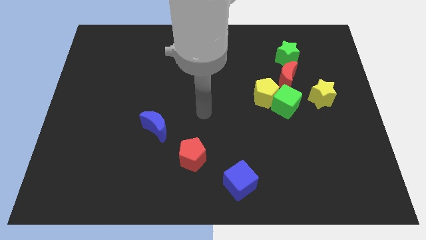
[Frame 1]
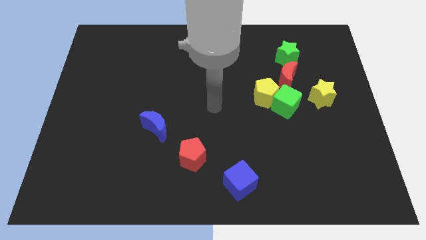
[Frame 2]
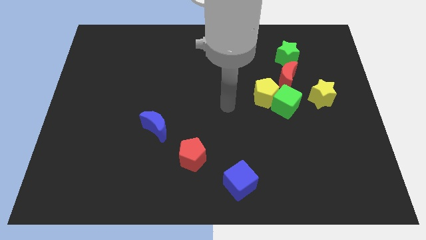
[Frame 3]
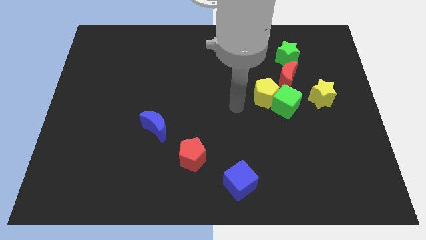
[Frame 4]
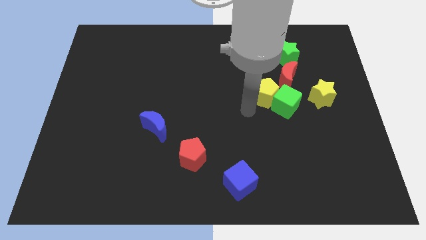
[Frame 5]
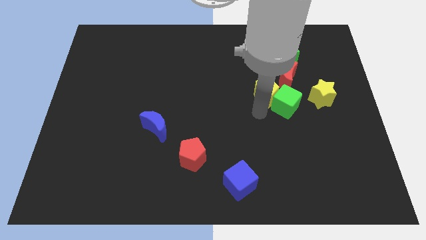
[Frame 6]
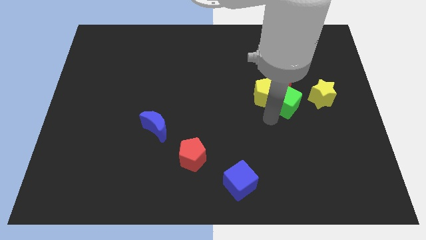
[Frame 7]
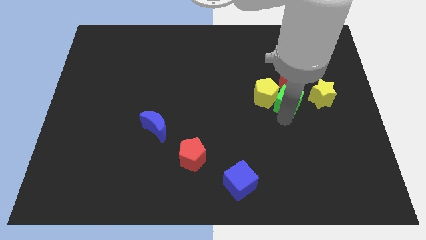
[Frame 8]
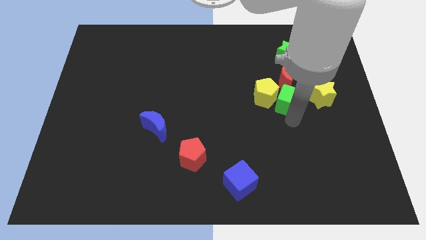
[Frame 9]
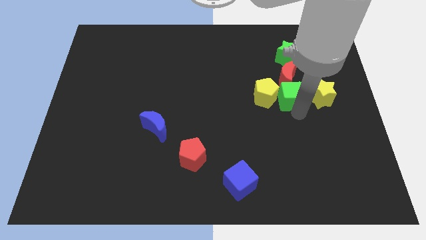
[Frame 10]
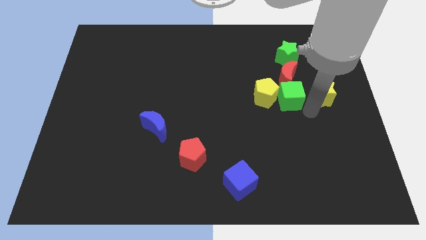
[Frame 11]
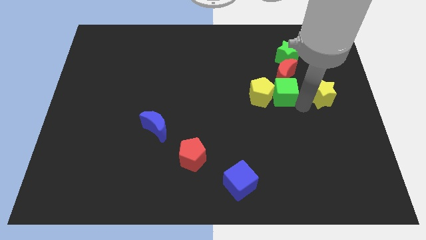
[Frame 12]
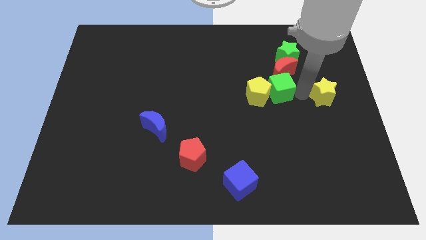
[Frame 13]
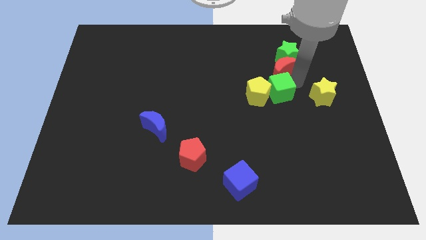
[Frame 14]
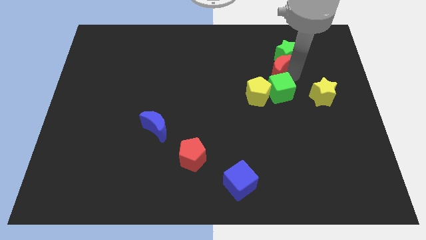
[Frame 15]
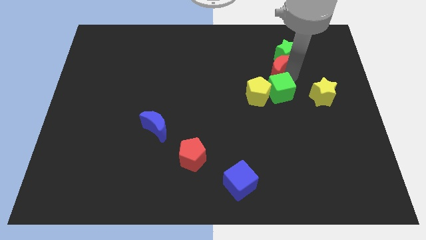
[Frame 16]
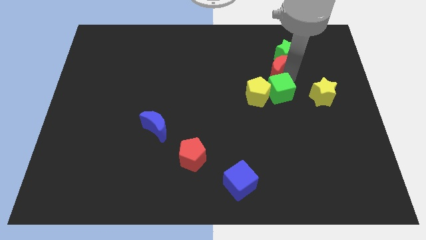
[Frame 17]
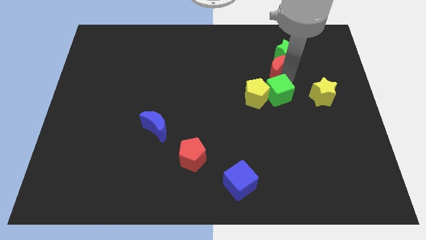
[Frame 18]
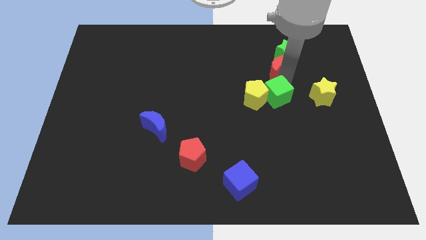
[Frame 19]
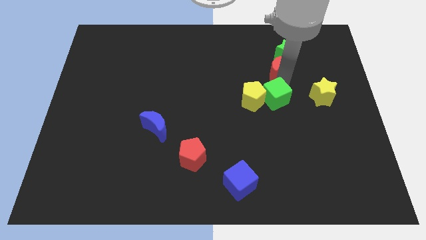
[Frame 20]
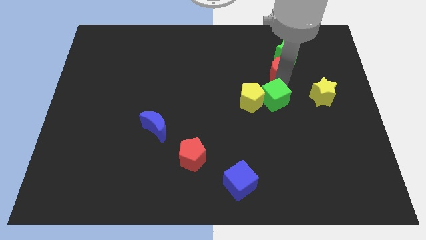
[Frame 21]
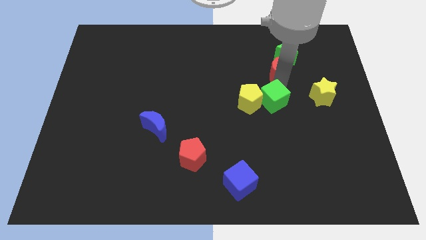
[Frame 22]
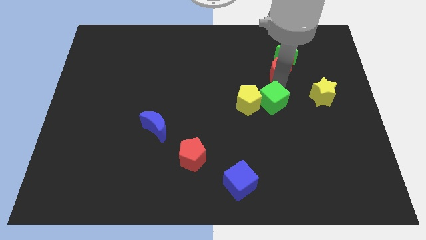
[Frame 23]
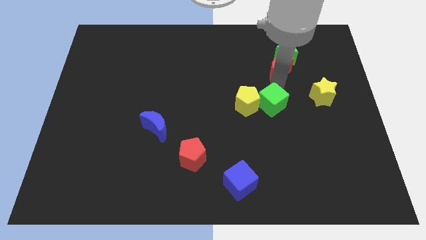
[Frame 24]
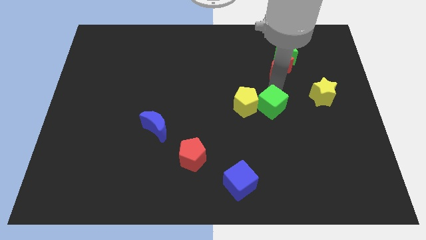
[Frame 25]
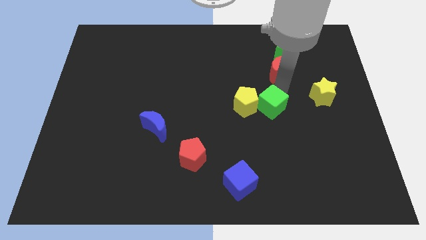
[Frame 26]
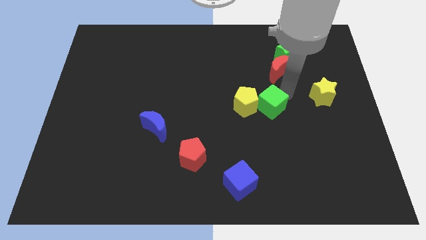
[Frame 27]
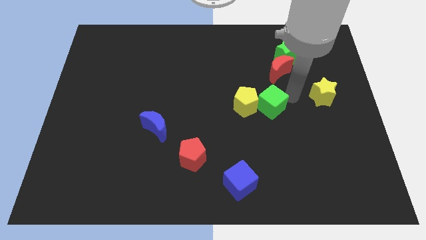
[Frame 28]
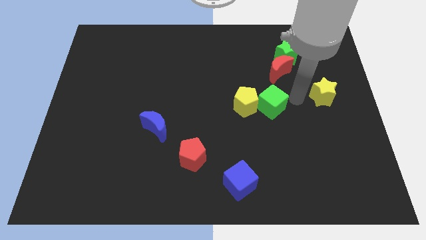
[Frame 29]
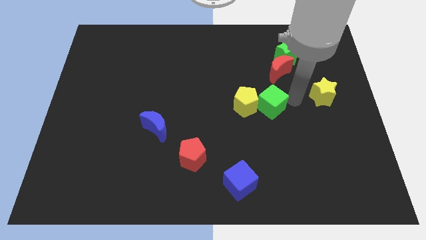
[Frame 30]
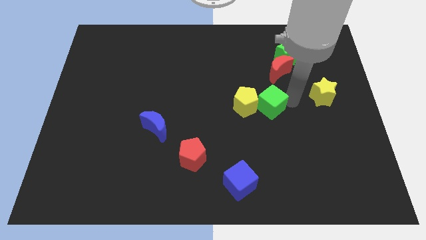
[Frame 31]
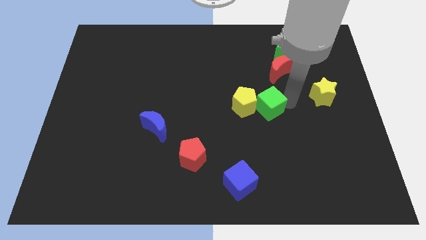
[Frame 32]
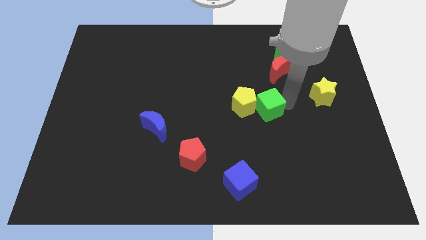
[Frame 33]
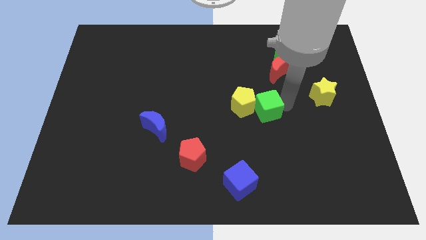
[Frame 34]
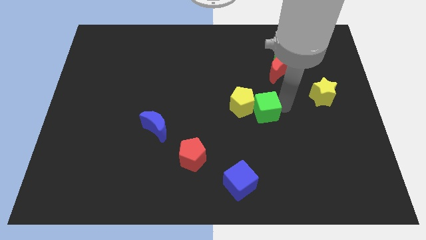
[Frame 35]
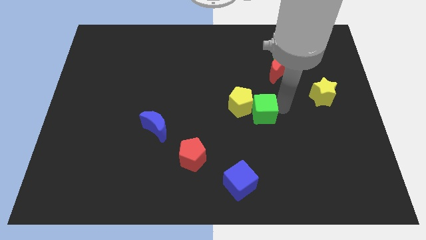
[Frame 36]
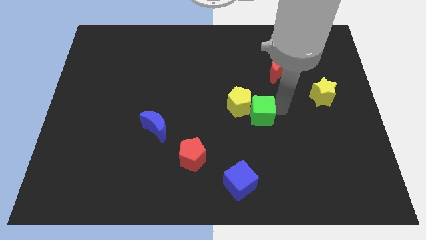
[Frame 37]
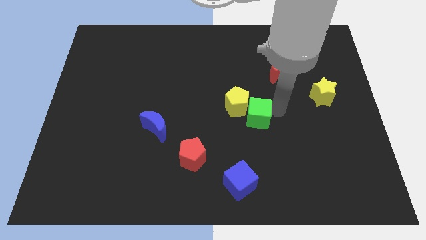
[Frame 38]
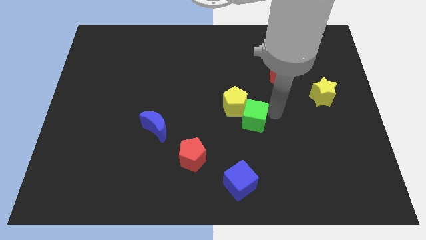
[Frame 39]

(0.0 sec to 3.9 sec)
slide the green cube left a little bit

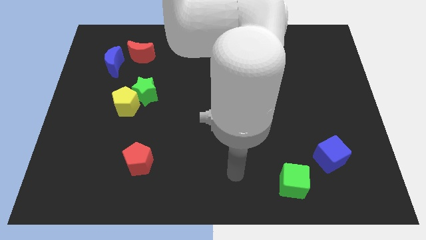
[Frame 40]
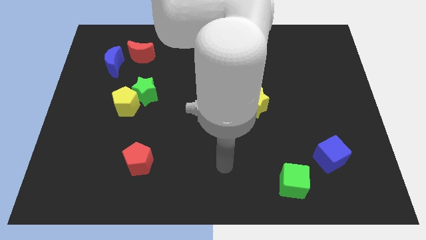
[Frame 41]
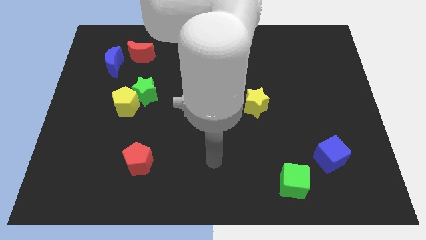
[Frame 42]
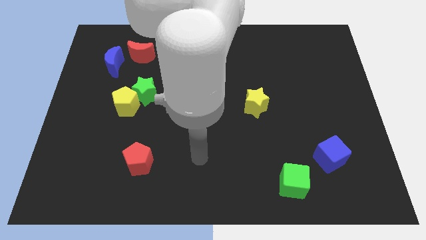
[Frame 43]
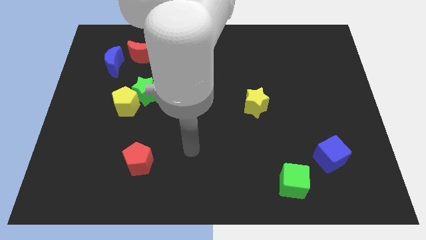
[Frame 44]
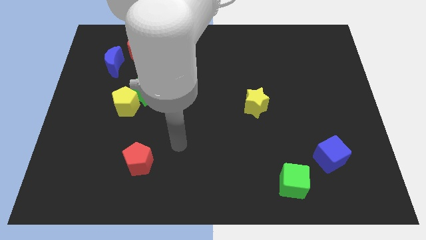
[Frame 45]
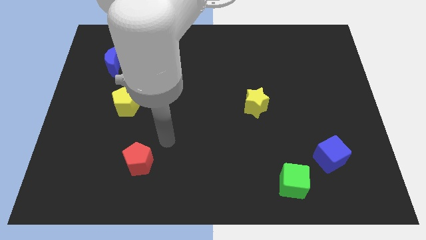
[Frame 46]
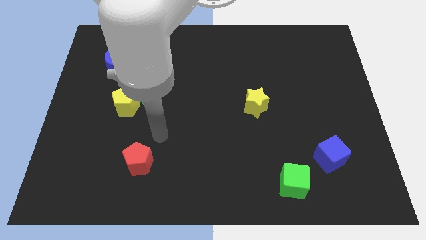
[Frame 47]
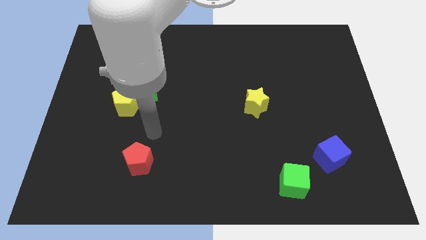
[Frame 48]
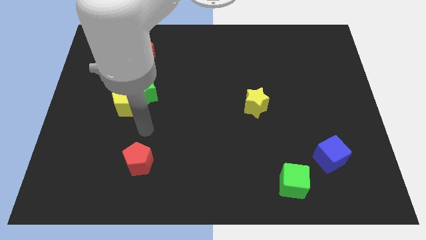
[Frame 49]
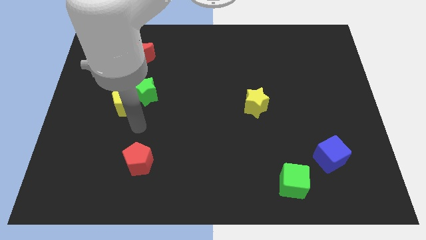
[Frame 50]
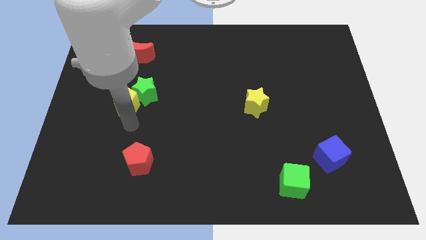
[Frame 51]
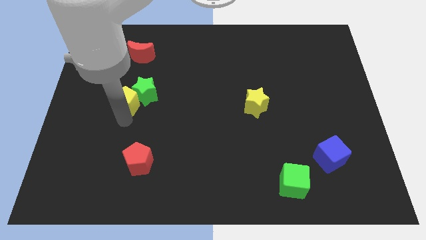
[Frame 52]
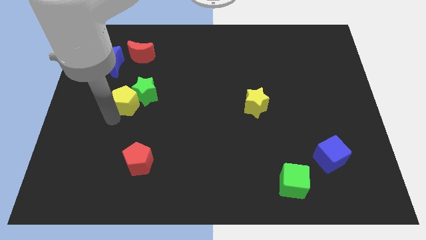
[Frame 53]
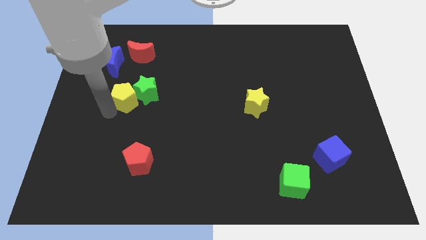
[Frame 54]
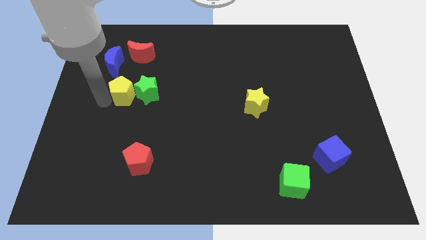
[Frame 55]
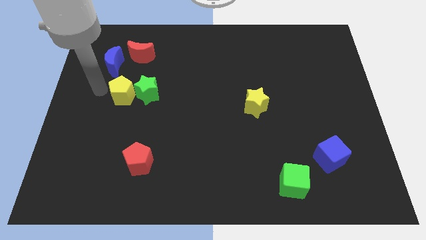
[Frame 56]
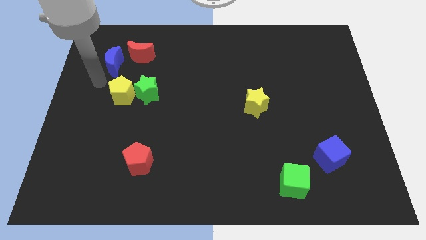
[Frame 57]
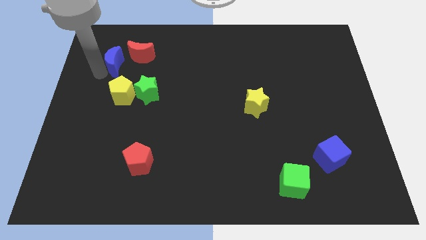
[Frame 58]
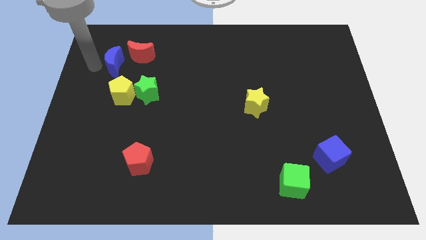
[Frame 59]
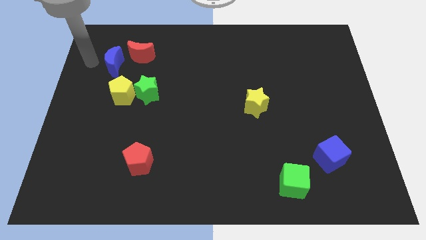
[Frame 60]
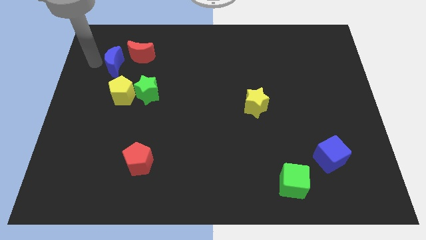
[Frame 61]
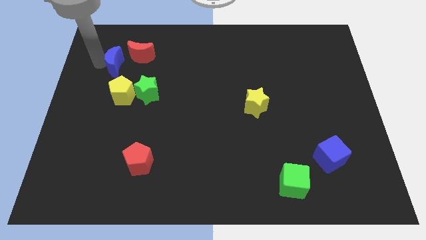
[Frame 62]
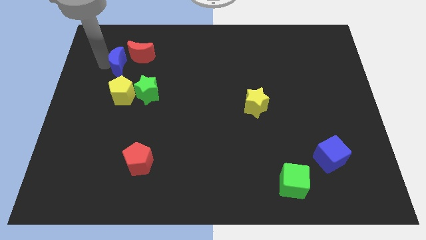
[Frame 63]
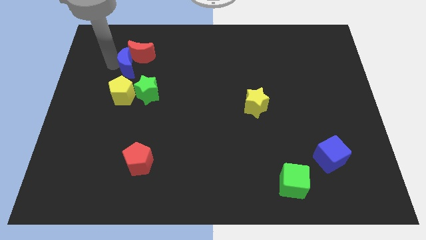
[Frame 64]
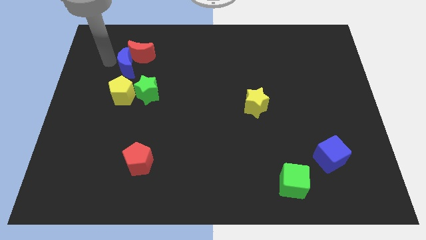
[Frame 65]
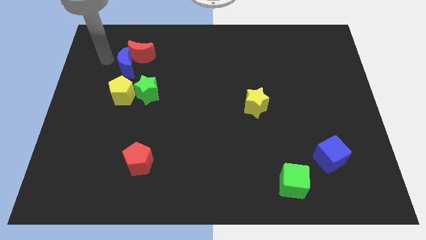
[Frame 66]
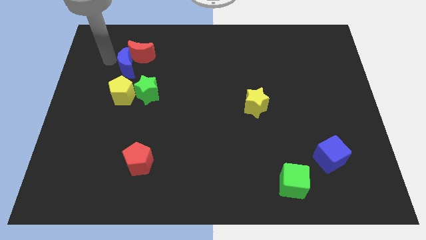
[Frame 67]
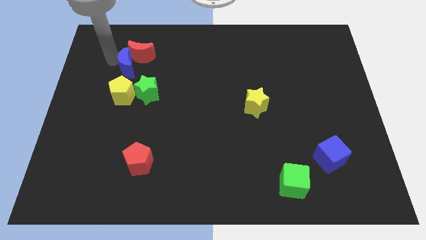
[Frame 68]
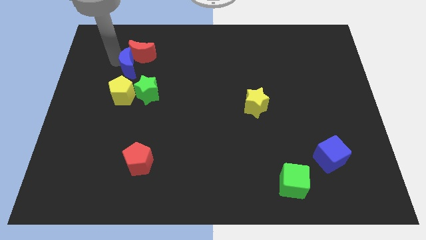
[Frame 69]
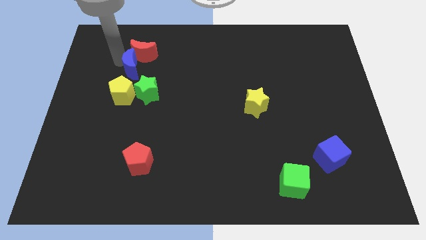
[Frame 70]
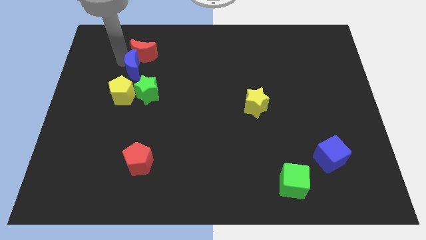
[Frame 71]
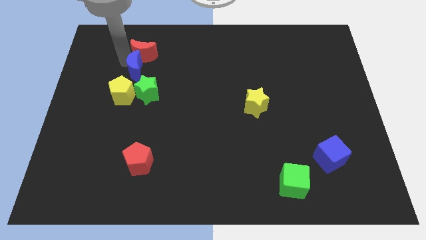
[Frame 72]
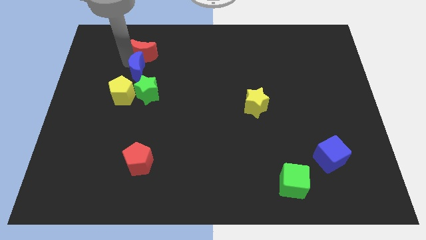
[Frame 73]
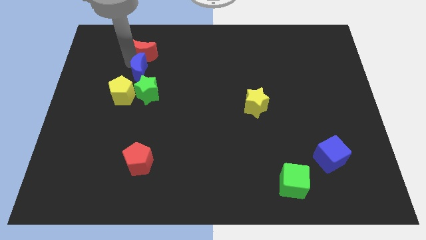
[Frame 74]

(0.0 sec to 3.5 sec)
move the blue moon to the right a little bit

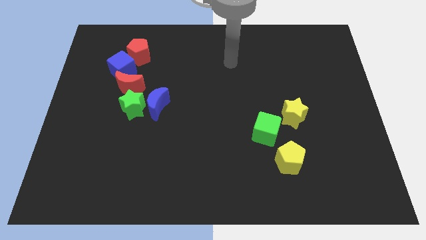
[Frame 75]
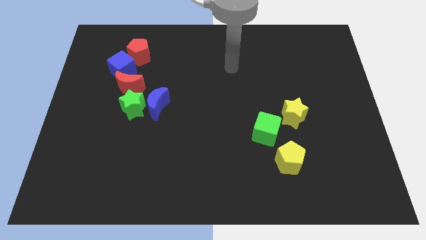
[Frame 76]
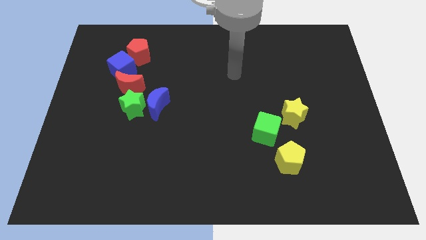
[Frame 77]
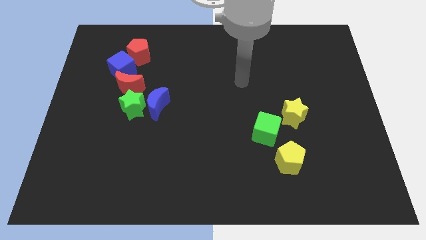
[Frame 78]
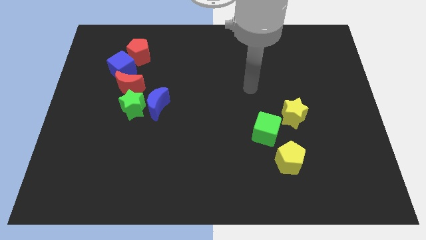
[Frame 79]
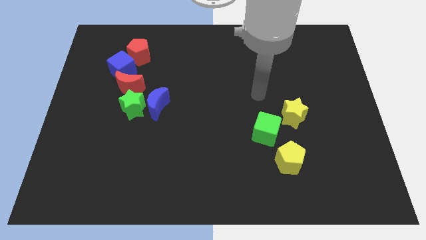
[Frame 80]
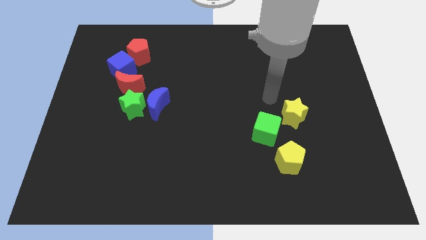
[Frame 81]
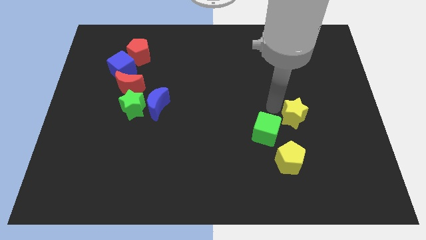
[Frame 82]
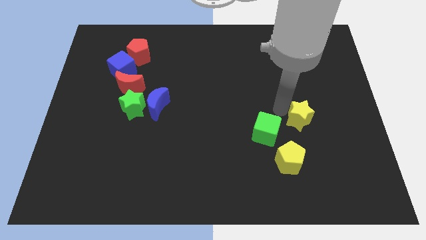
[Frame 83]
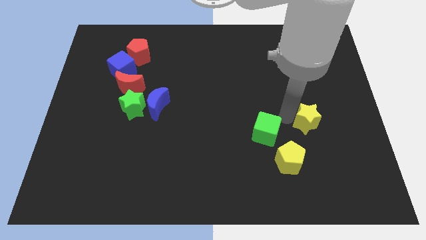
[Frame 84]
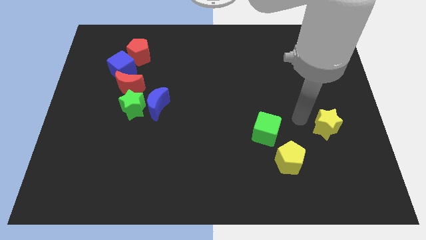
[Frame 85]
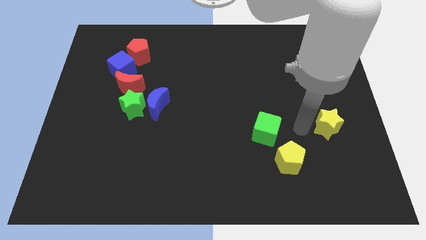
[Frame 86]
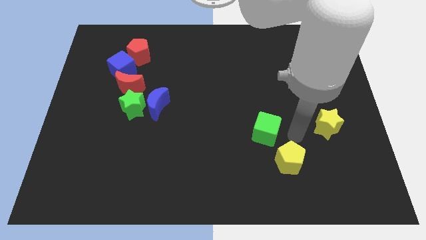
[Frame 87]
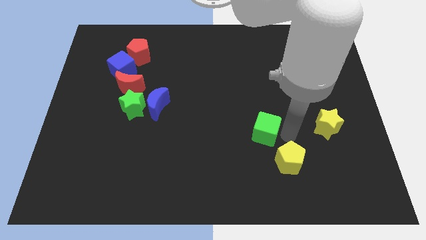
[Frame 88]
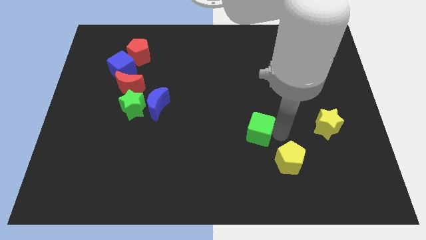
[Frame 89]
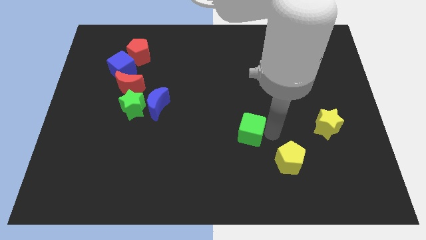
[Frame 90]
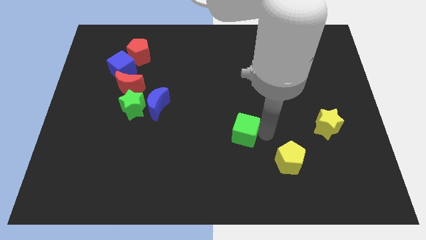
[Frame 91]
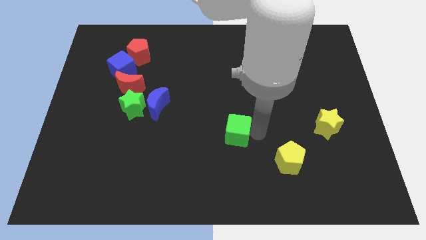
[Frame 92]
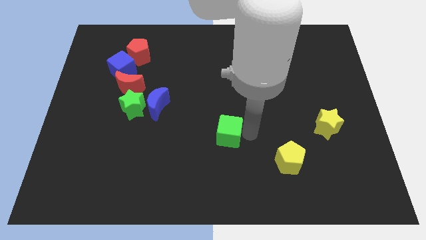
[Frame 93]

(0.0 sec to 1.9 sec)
slide the green cube to the left somewhat
